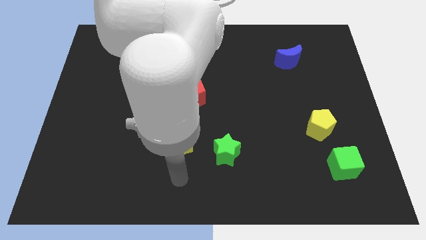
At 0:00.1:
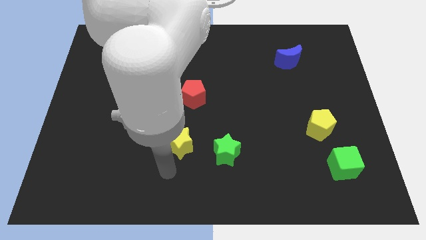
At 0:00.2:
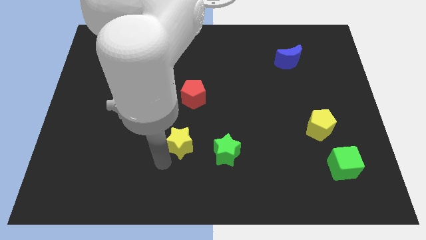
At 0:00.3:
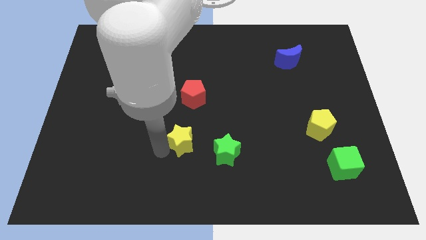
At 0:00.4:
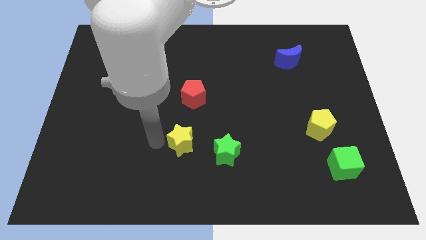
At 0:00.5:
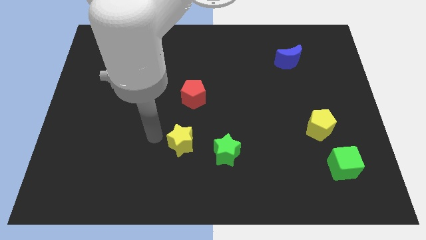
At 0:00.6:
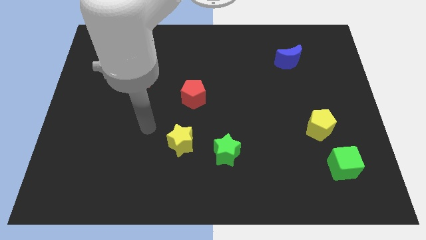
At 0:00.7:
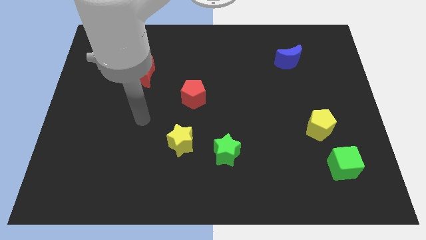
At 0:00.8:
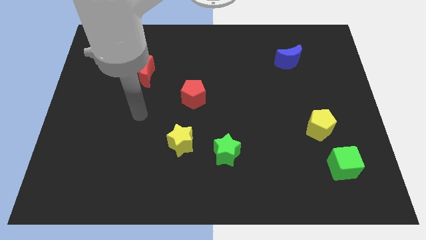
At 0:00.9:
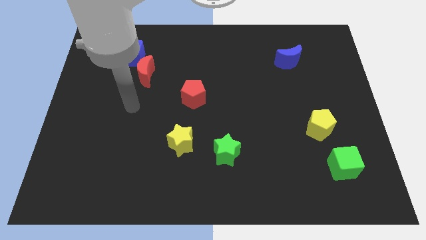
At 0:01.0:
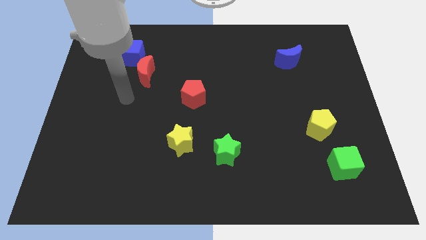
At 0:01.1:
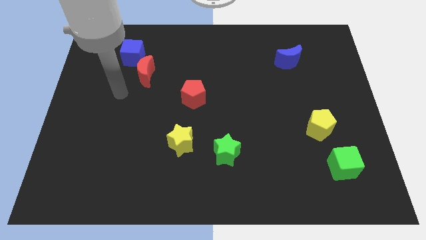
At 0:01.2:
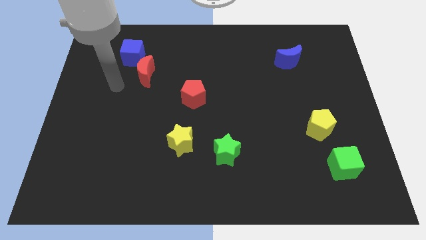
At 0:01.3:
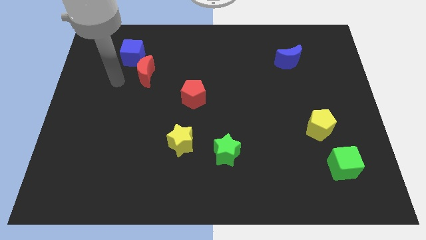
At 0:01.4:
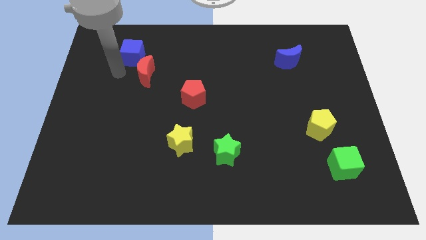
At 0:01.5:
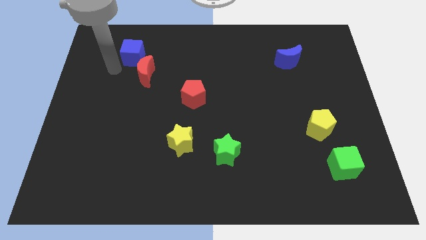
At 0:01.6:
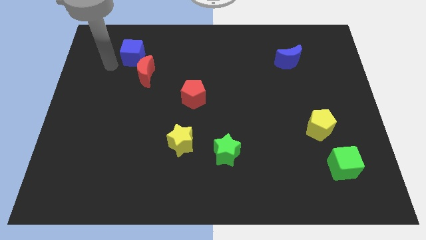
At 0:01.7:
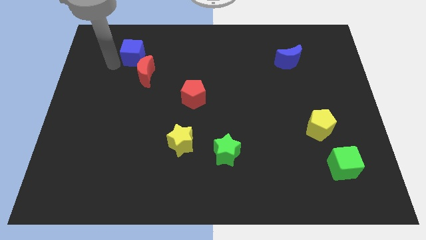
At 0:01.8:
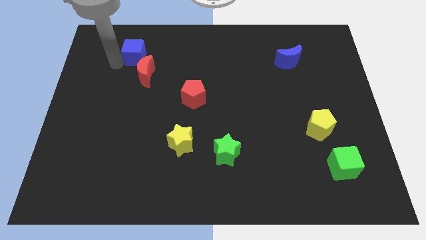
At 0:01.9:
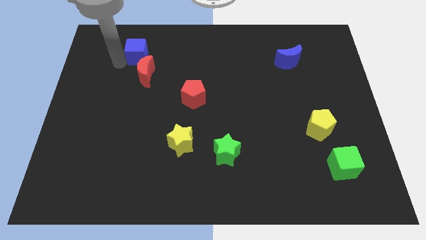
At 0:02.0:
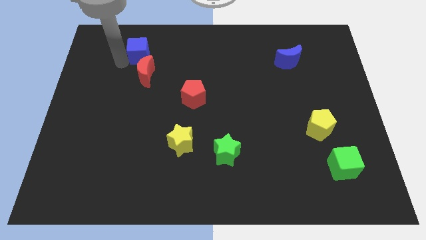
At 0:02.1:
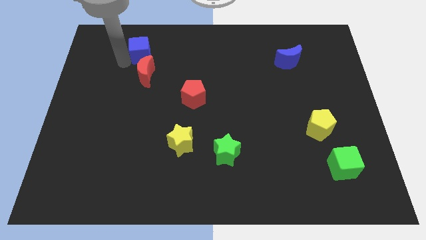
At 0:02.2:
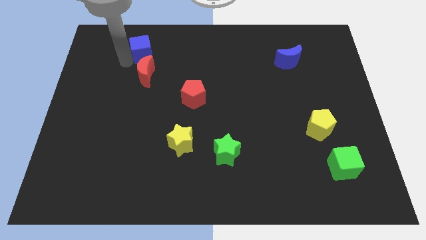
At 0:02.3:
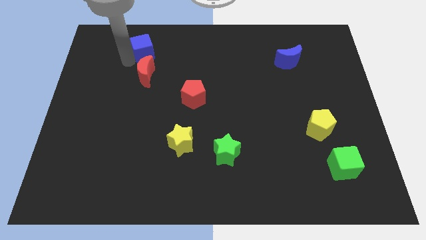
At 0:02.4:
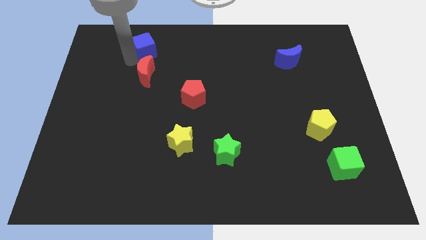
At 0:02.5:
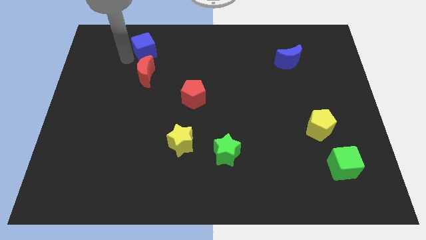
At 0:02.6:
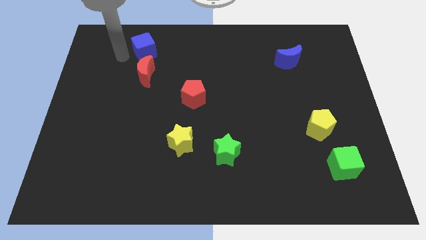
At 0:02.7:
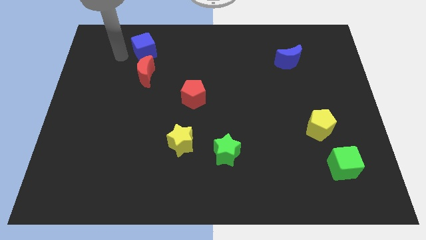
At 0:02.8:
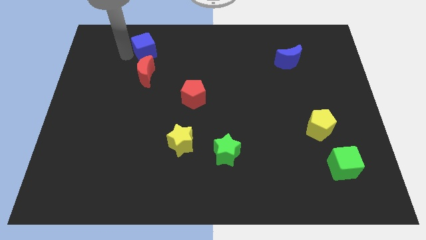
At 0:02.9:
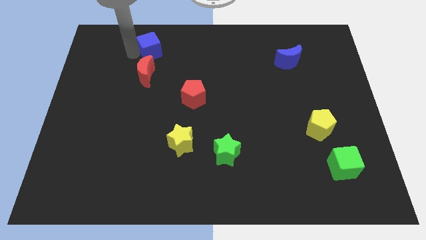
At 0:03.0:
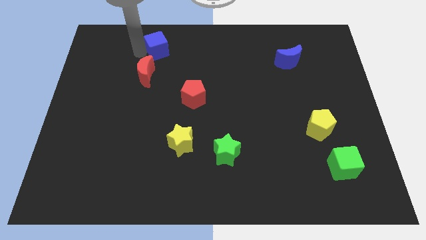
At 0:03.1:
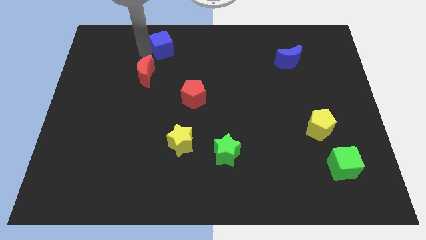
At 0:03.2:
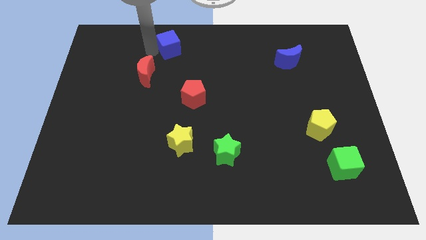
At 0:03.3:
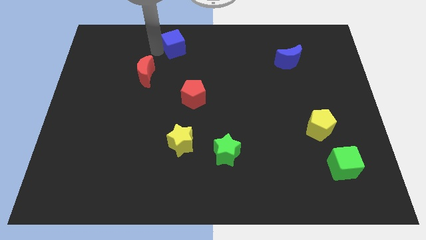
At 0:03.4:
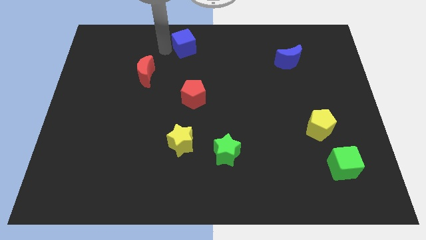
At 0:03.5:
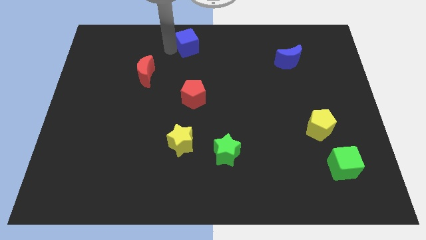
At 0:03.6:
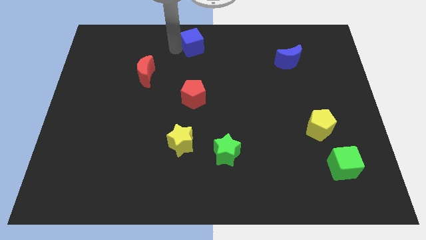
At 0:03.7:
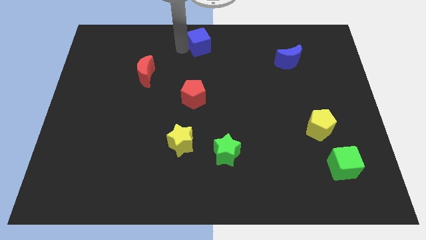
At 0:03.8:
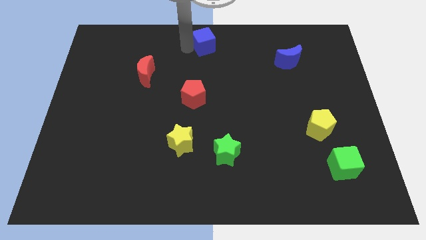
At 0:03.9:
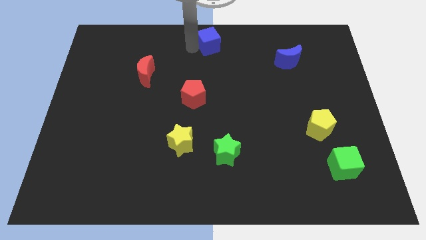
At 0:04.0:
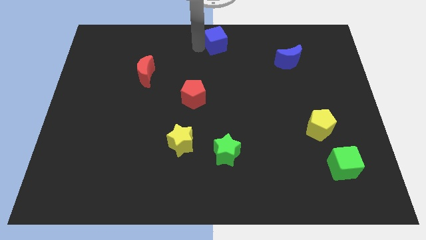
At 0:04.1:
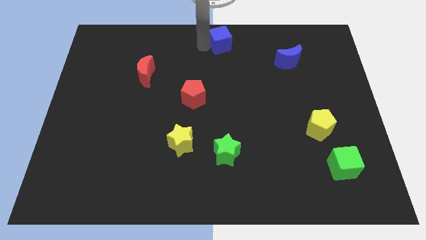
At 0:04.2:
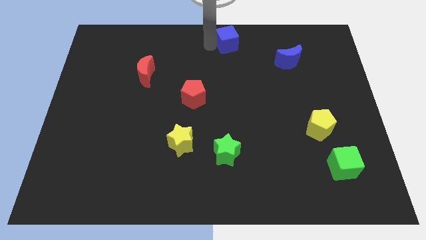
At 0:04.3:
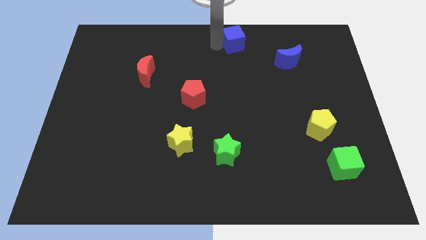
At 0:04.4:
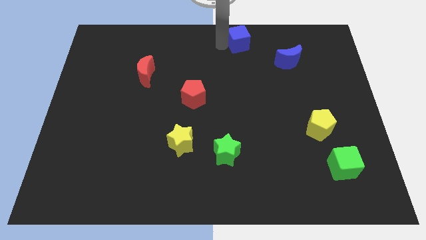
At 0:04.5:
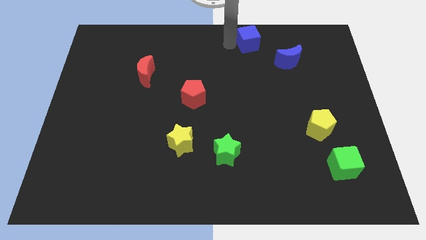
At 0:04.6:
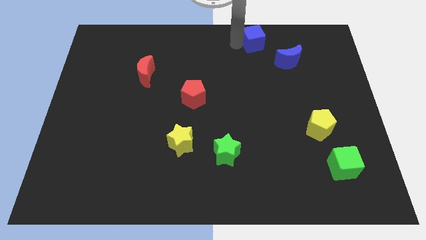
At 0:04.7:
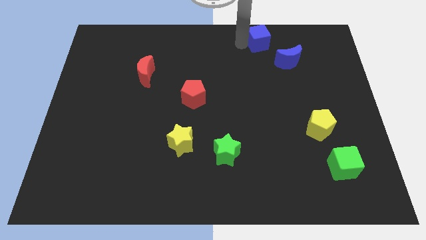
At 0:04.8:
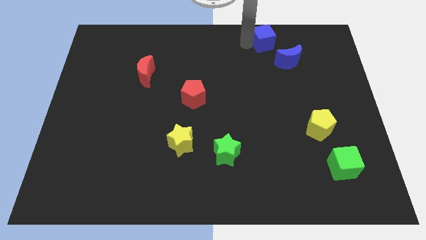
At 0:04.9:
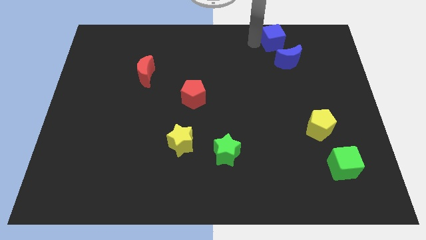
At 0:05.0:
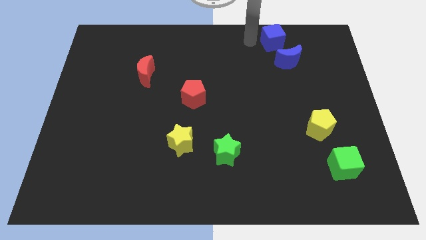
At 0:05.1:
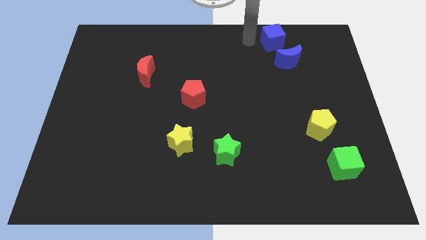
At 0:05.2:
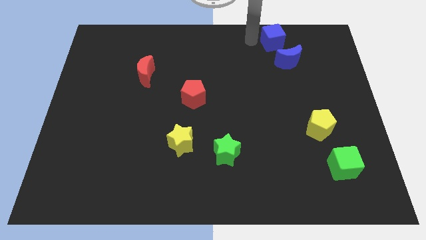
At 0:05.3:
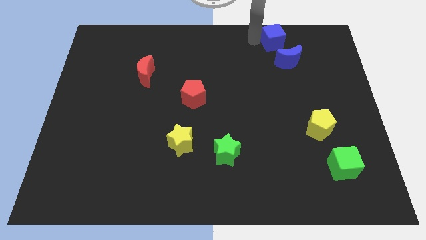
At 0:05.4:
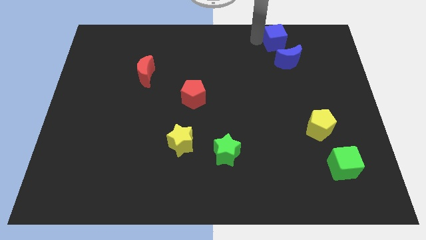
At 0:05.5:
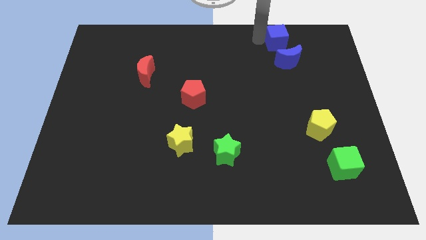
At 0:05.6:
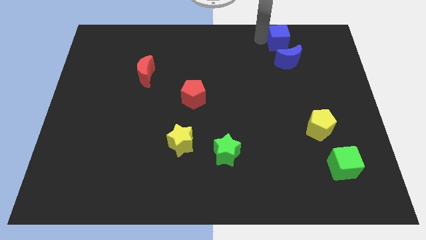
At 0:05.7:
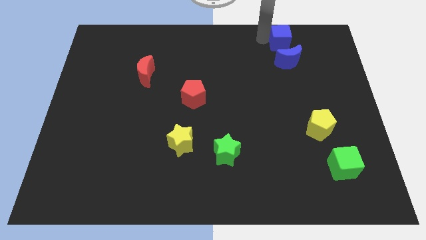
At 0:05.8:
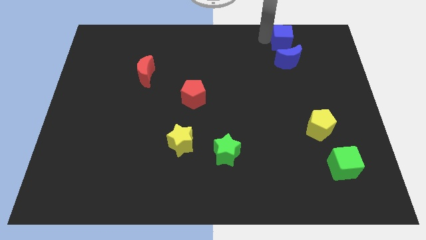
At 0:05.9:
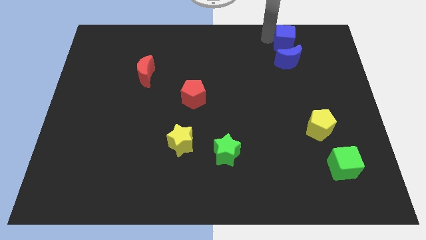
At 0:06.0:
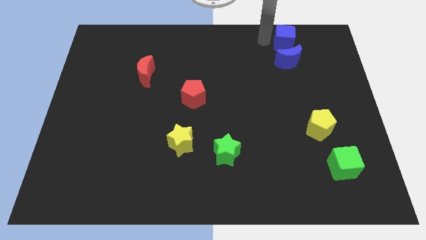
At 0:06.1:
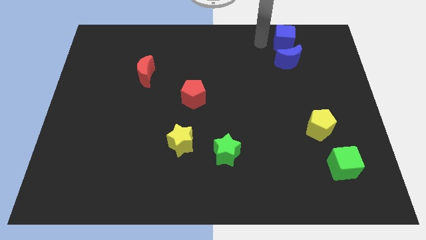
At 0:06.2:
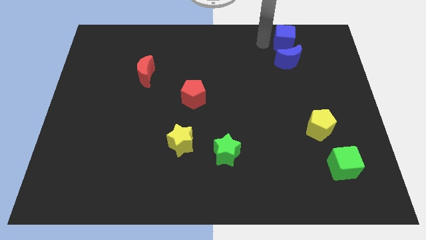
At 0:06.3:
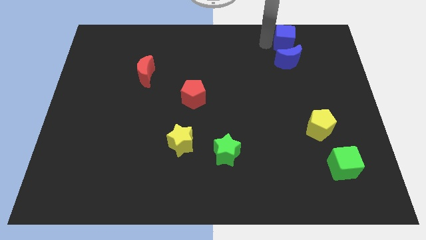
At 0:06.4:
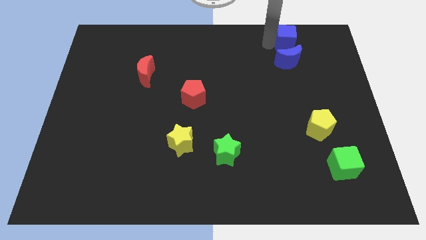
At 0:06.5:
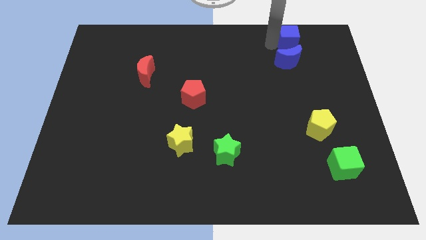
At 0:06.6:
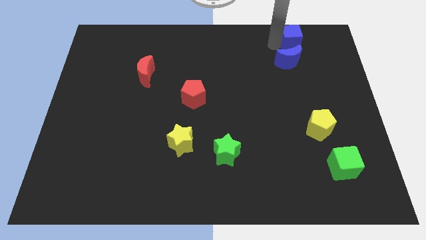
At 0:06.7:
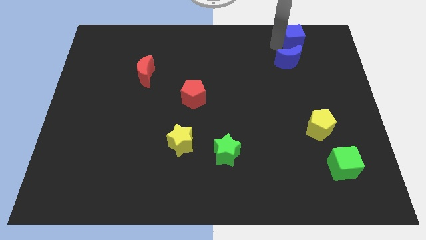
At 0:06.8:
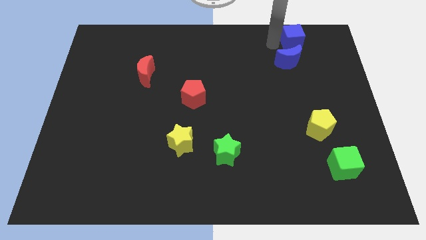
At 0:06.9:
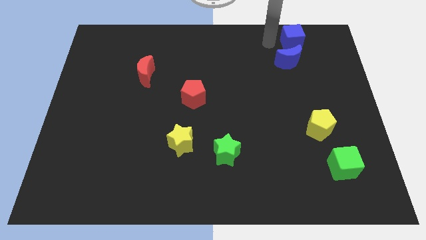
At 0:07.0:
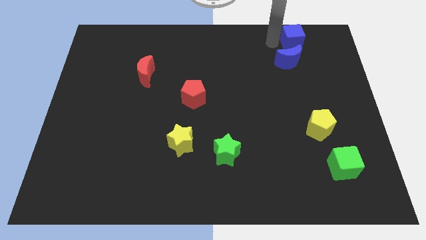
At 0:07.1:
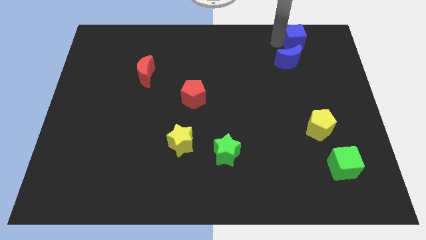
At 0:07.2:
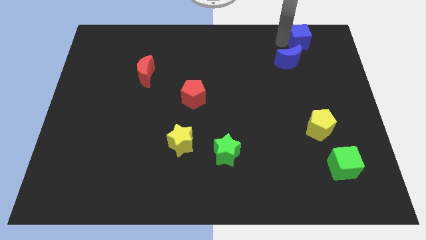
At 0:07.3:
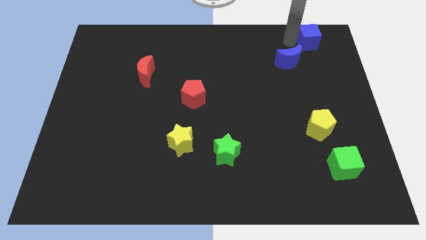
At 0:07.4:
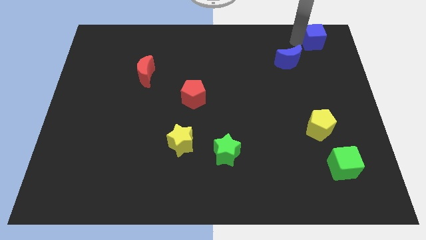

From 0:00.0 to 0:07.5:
put the blue cube to the top right corner
